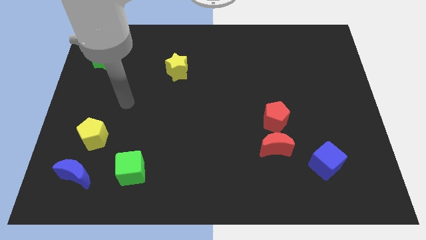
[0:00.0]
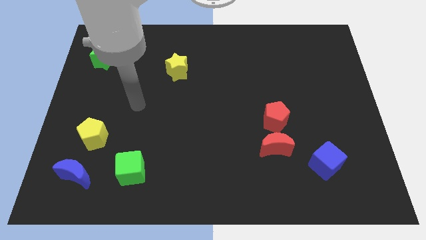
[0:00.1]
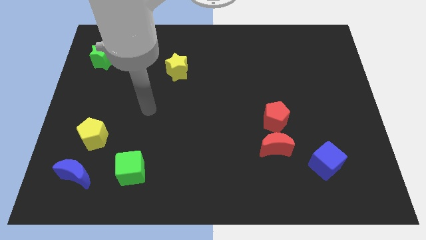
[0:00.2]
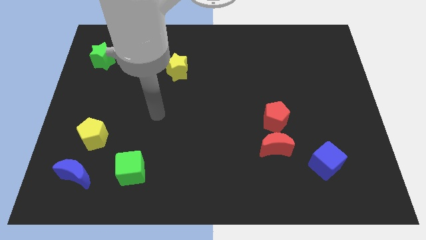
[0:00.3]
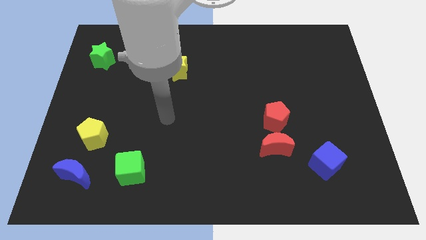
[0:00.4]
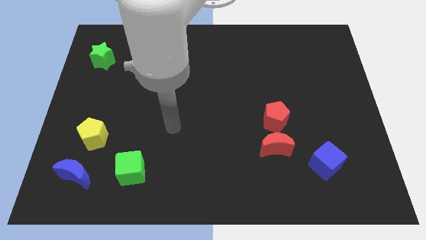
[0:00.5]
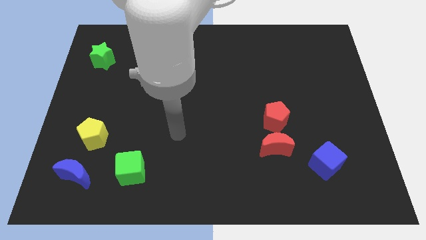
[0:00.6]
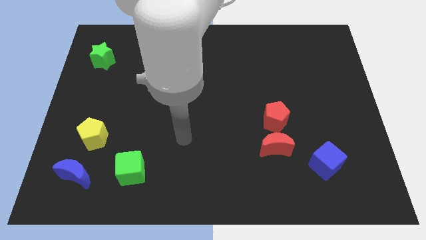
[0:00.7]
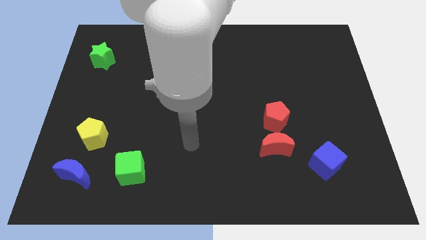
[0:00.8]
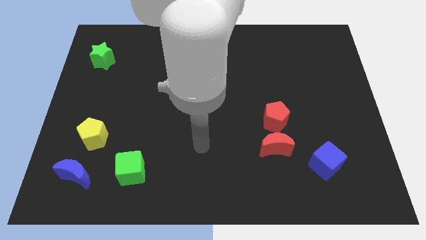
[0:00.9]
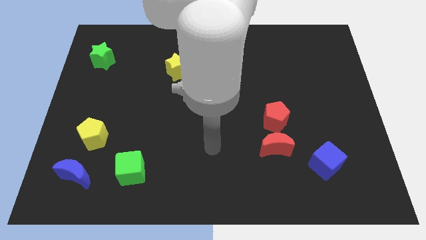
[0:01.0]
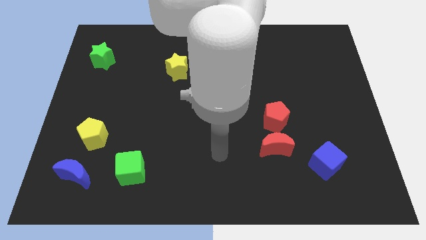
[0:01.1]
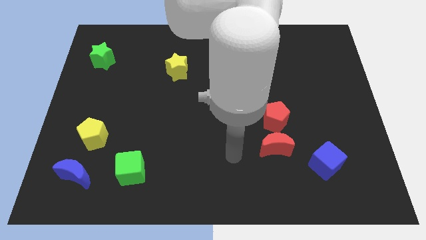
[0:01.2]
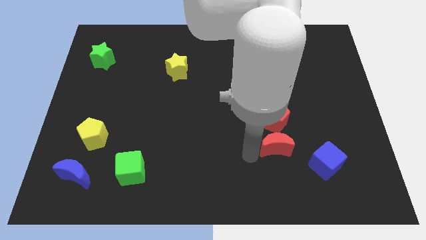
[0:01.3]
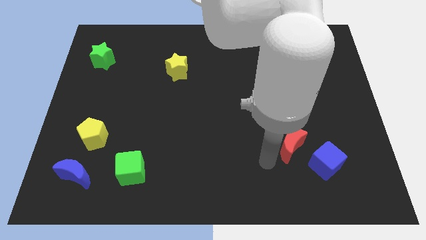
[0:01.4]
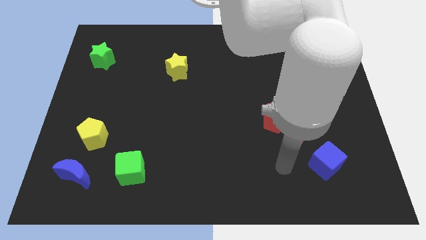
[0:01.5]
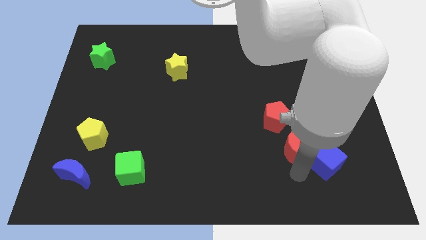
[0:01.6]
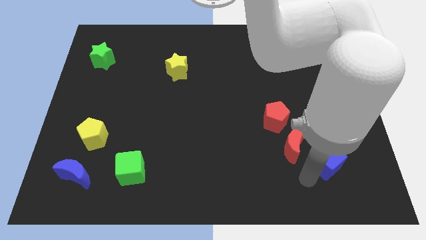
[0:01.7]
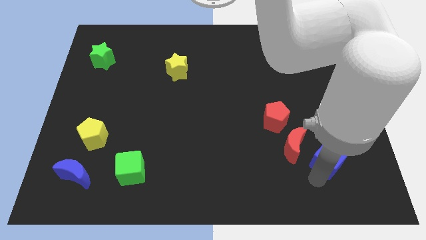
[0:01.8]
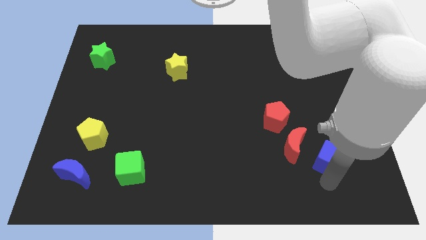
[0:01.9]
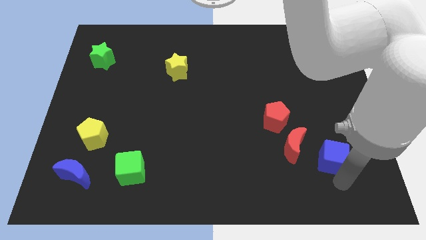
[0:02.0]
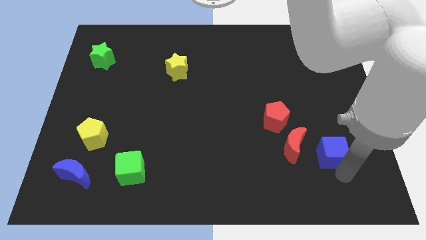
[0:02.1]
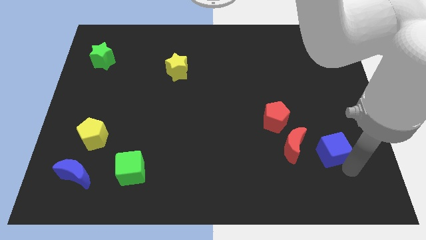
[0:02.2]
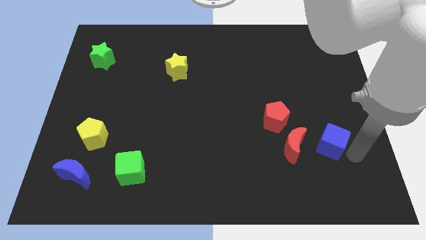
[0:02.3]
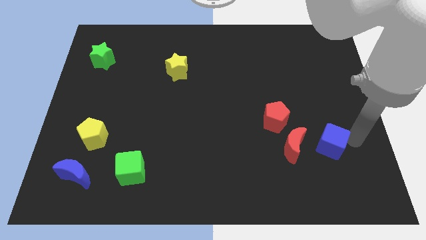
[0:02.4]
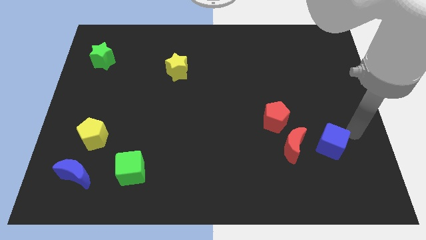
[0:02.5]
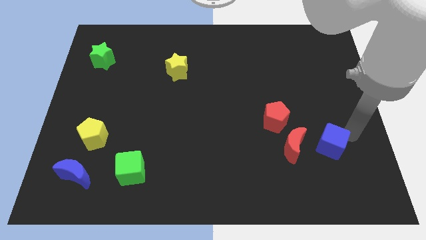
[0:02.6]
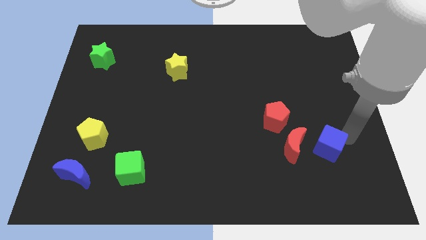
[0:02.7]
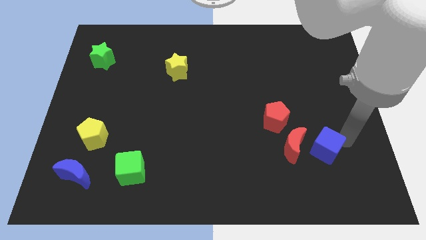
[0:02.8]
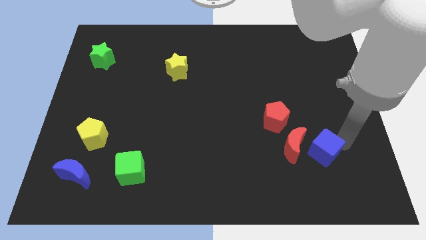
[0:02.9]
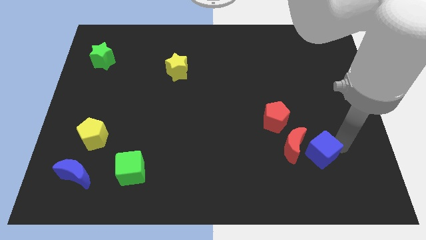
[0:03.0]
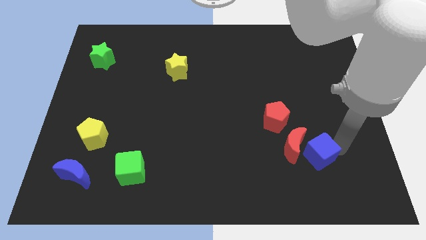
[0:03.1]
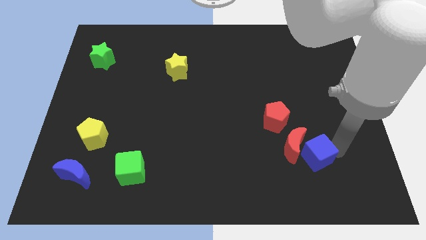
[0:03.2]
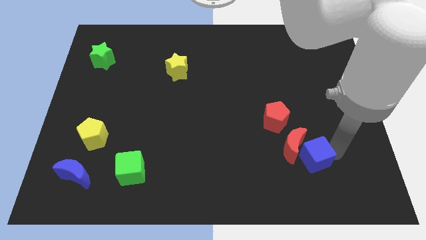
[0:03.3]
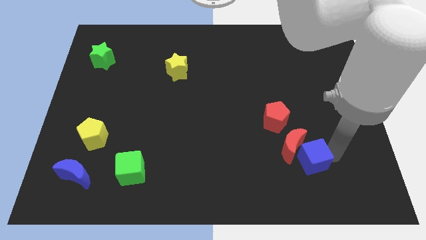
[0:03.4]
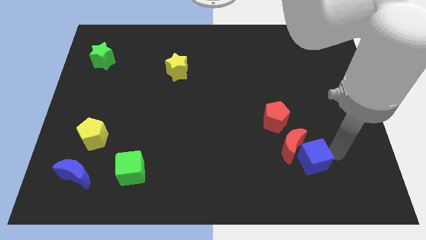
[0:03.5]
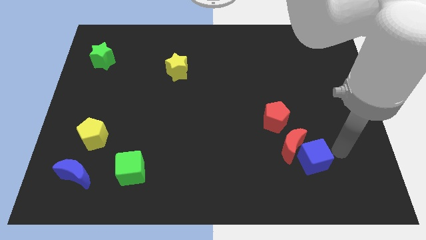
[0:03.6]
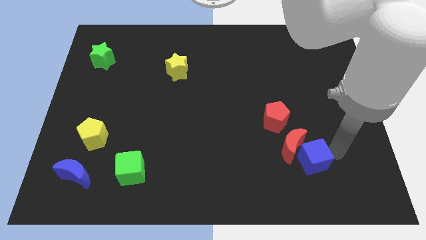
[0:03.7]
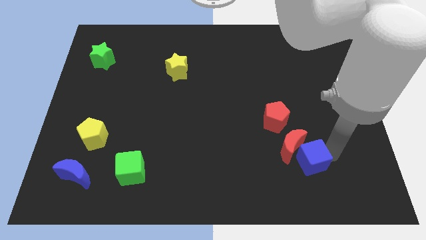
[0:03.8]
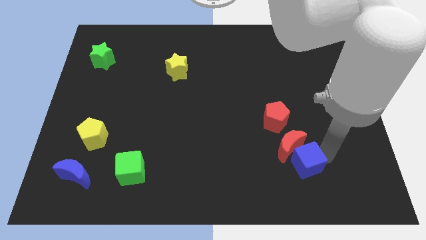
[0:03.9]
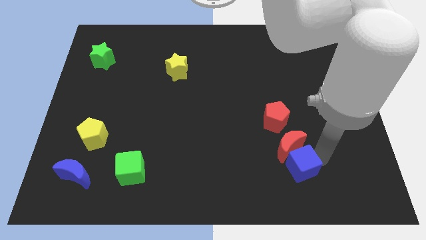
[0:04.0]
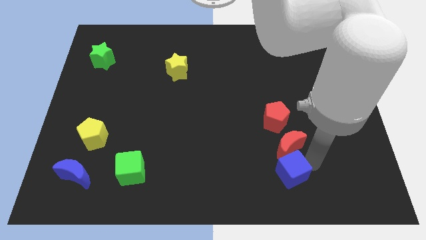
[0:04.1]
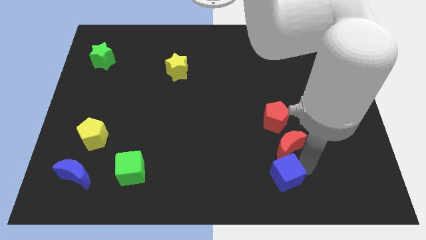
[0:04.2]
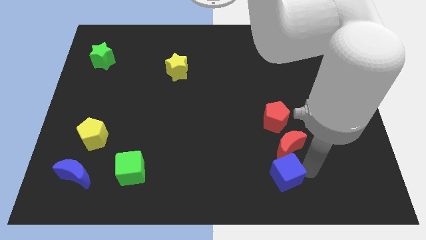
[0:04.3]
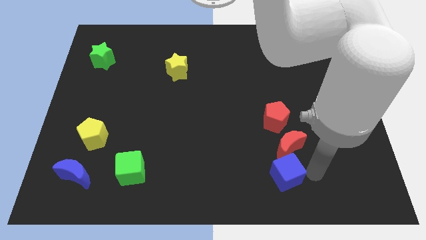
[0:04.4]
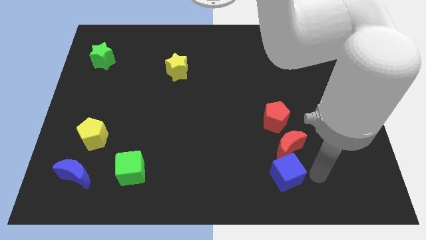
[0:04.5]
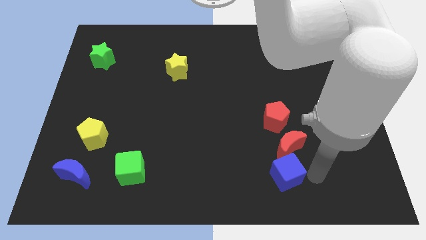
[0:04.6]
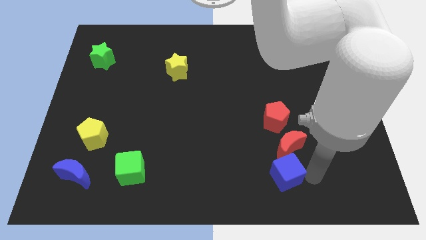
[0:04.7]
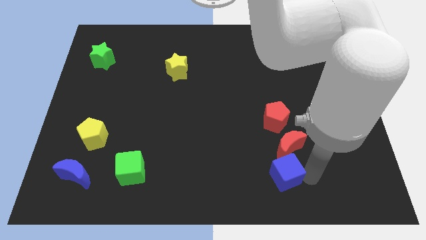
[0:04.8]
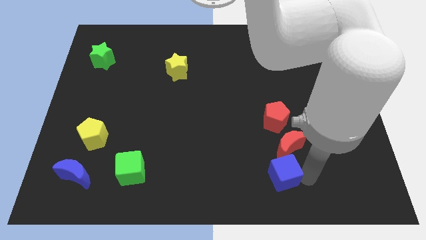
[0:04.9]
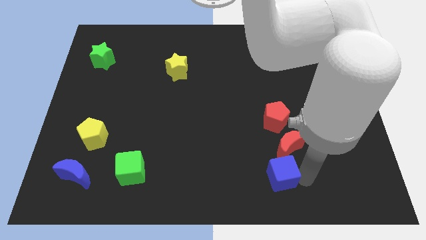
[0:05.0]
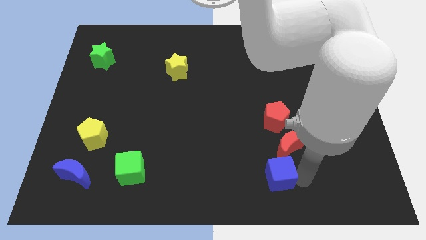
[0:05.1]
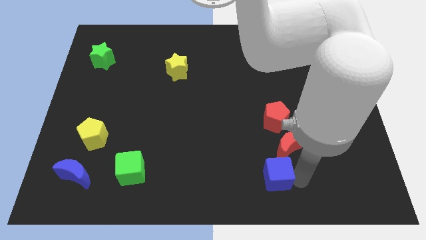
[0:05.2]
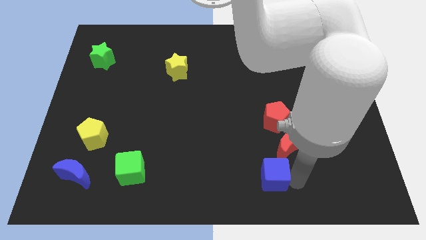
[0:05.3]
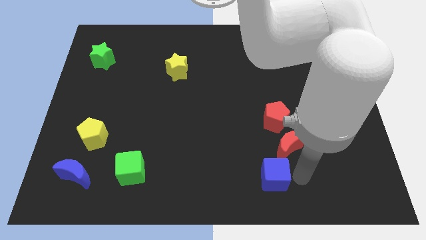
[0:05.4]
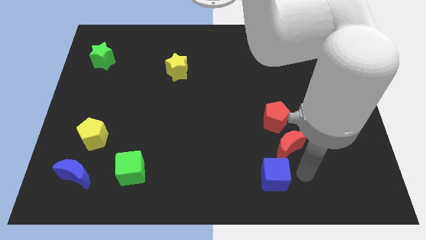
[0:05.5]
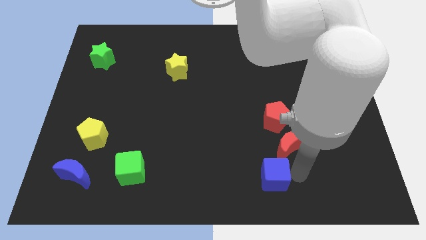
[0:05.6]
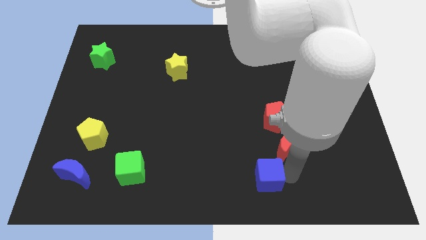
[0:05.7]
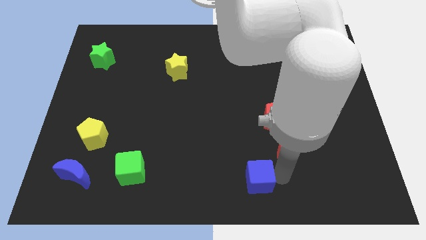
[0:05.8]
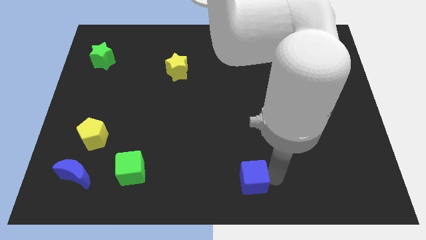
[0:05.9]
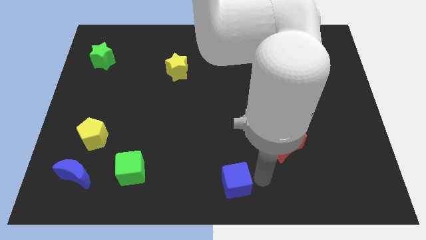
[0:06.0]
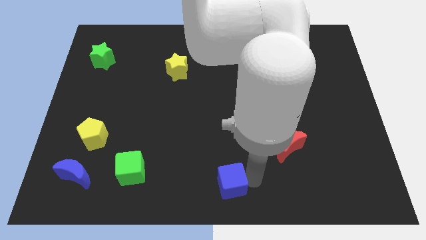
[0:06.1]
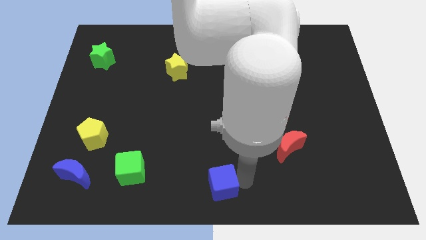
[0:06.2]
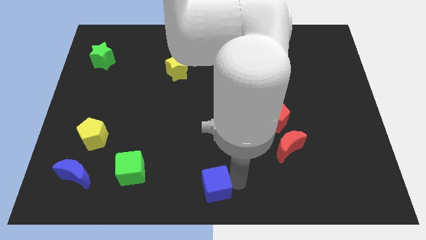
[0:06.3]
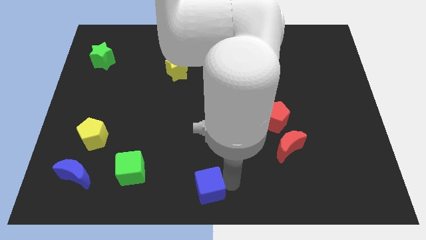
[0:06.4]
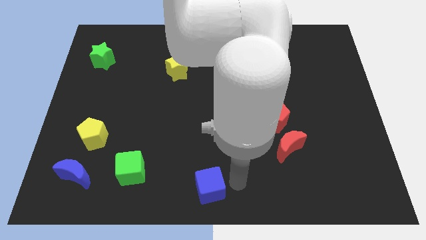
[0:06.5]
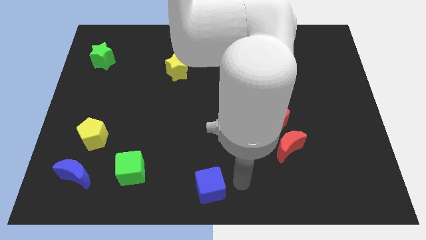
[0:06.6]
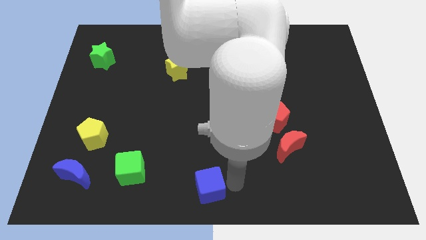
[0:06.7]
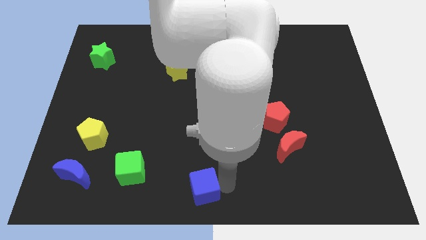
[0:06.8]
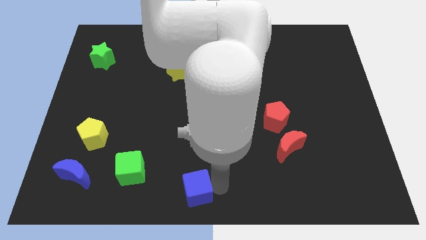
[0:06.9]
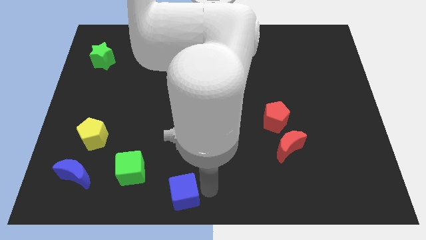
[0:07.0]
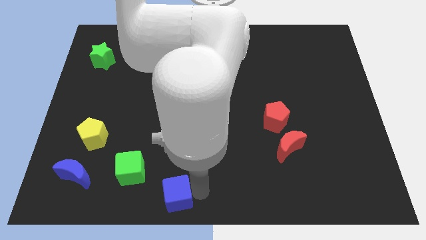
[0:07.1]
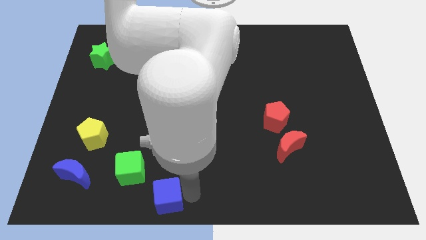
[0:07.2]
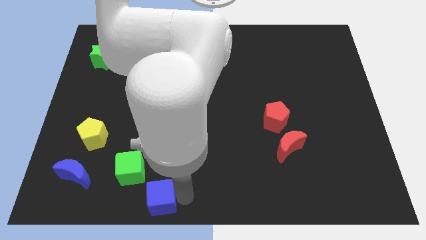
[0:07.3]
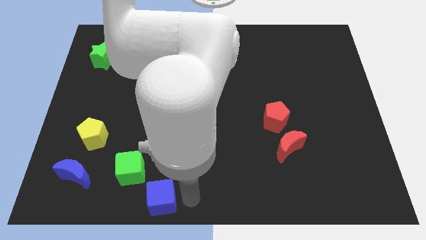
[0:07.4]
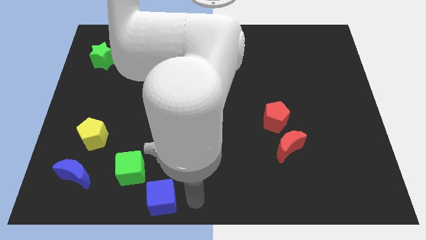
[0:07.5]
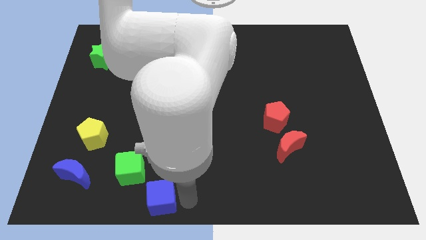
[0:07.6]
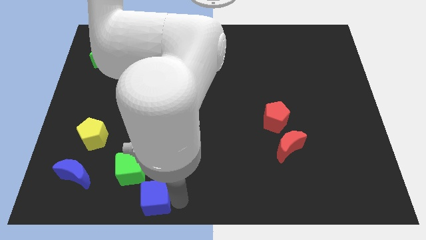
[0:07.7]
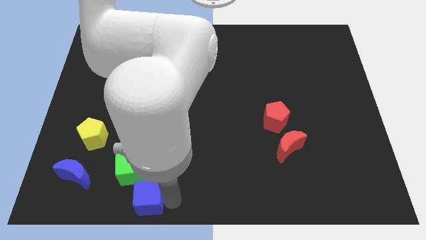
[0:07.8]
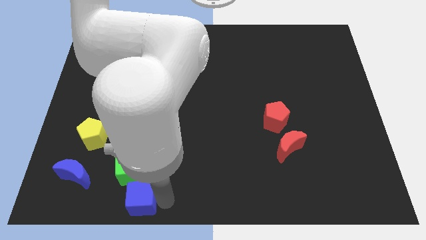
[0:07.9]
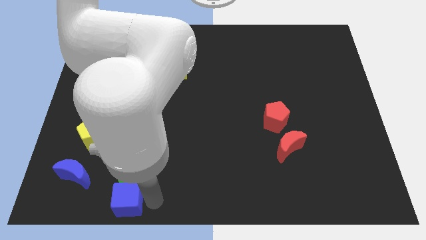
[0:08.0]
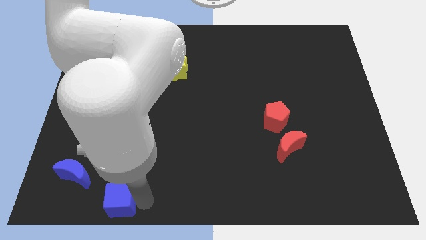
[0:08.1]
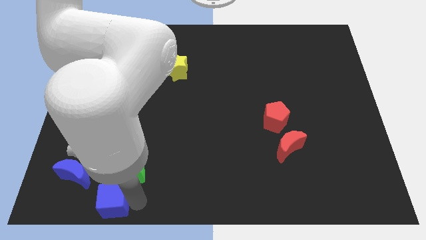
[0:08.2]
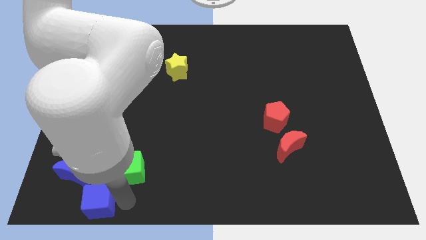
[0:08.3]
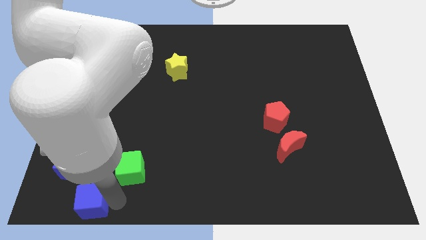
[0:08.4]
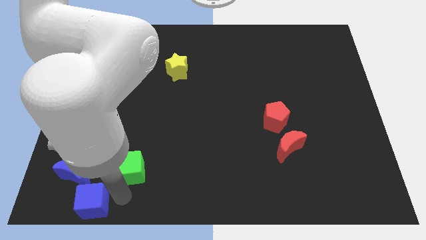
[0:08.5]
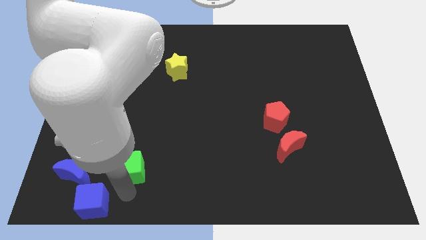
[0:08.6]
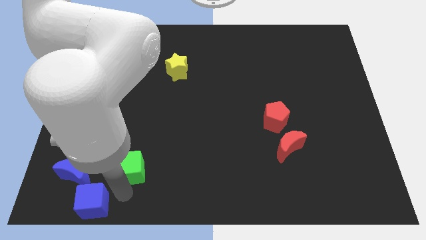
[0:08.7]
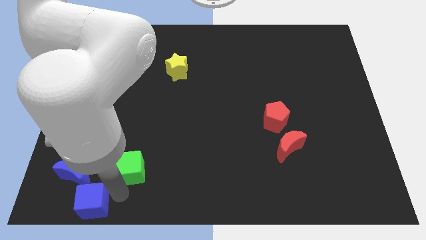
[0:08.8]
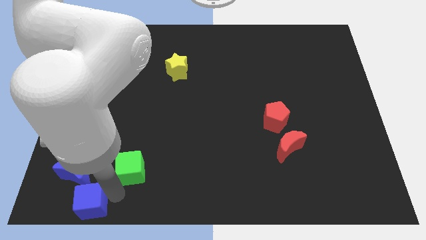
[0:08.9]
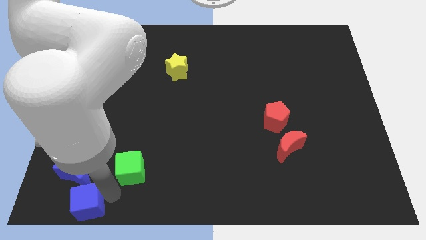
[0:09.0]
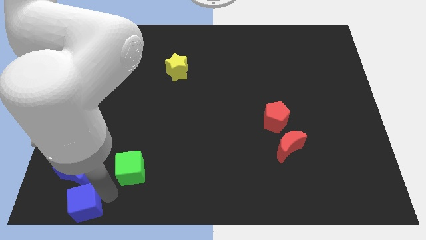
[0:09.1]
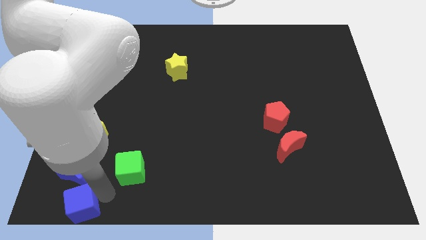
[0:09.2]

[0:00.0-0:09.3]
put the blue cube to the lower left corner
